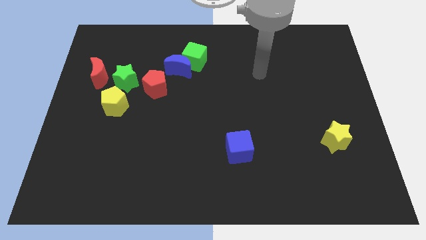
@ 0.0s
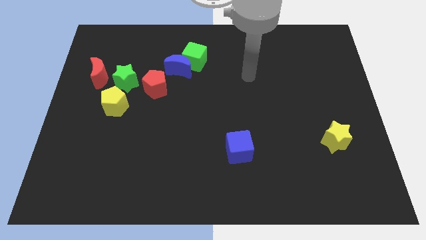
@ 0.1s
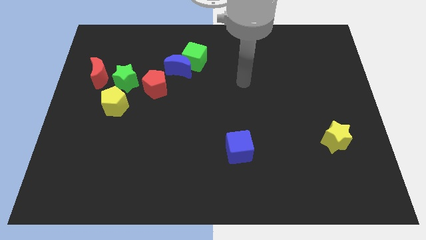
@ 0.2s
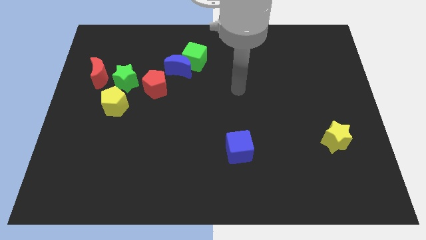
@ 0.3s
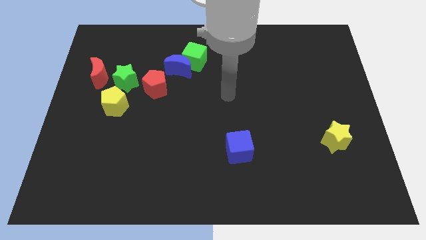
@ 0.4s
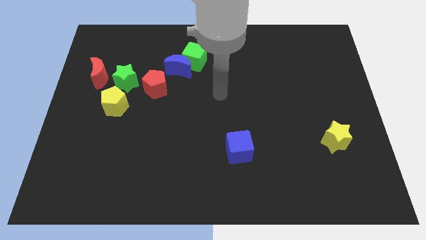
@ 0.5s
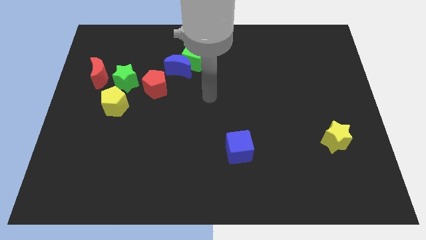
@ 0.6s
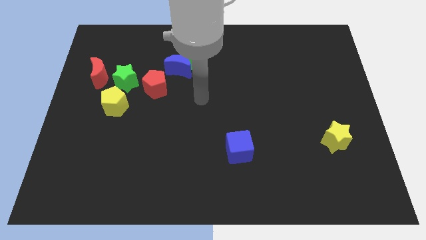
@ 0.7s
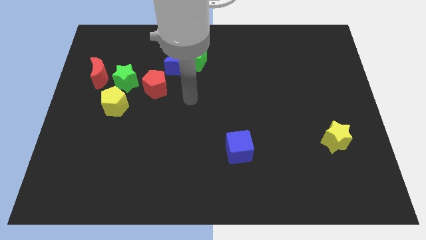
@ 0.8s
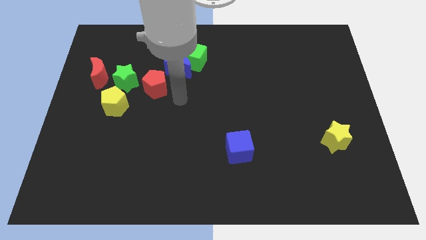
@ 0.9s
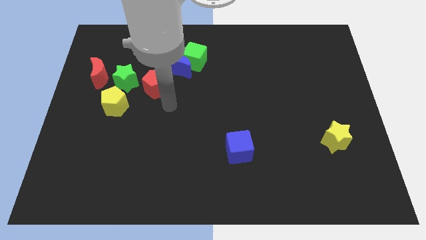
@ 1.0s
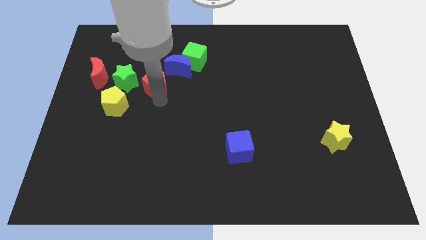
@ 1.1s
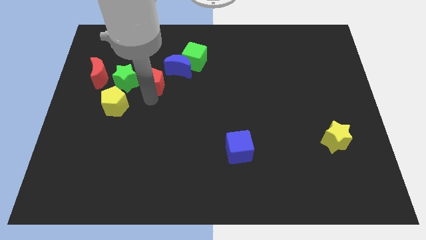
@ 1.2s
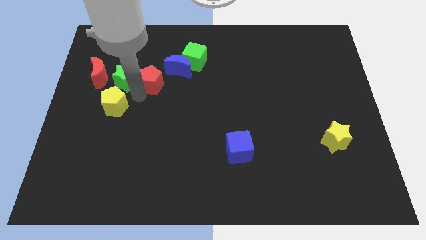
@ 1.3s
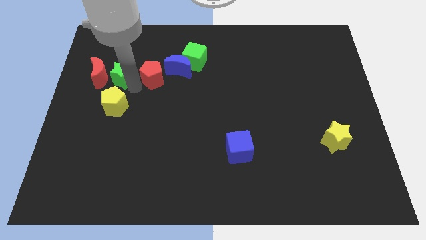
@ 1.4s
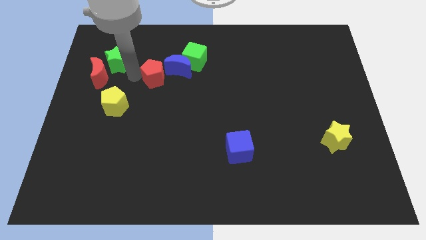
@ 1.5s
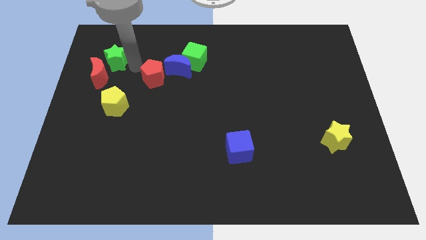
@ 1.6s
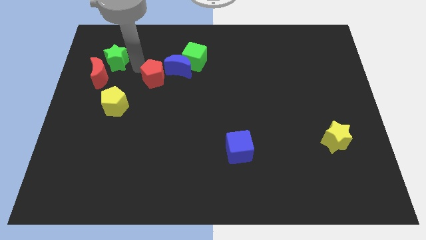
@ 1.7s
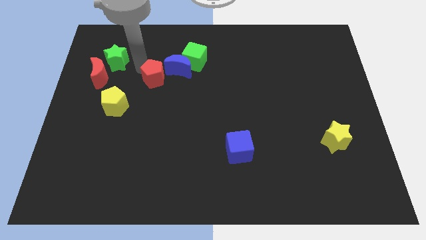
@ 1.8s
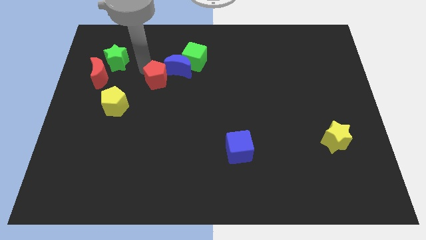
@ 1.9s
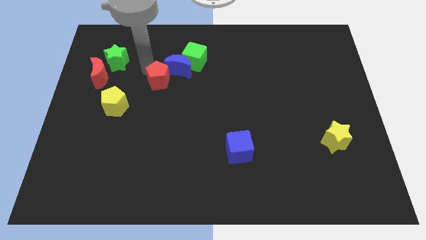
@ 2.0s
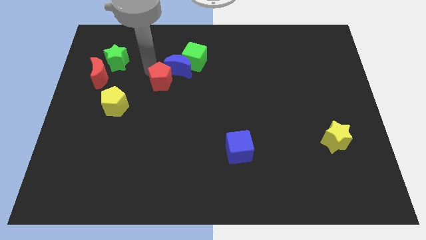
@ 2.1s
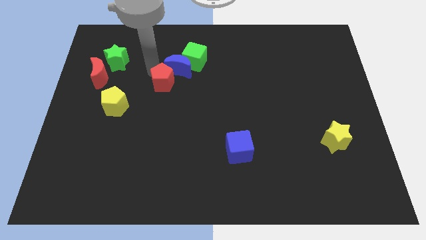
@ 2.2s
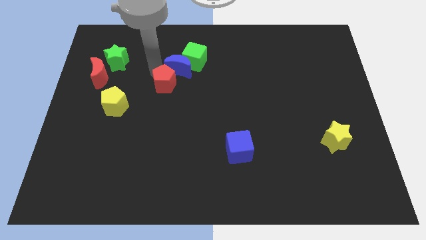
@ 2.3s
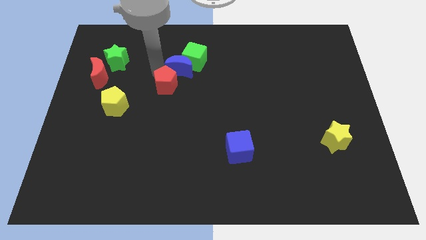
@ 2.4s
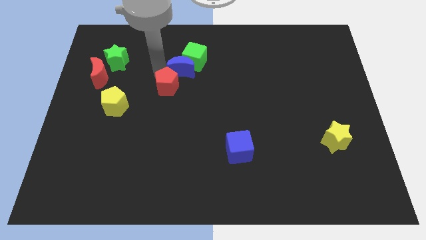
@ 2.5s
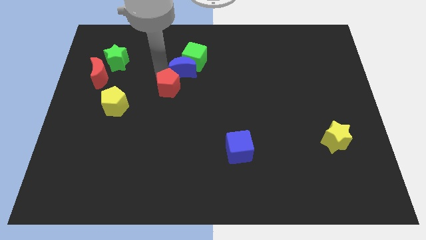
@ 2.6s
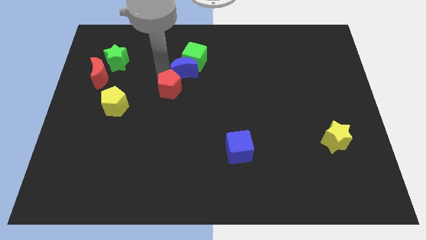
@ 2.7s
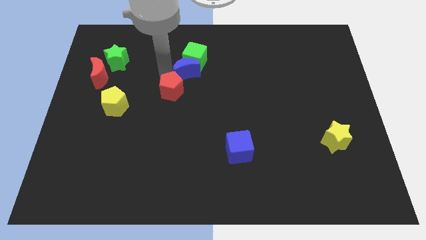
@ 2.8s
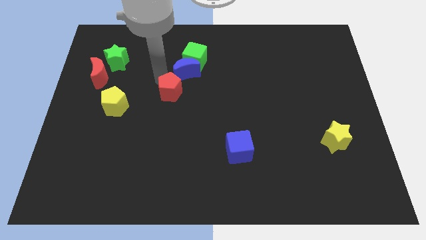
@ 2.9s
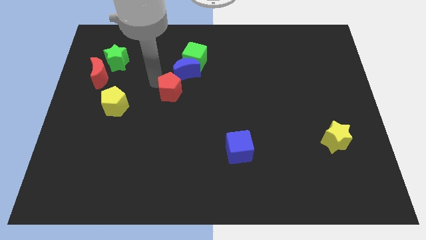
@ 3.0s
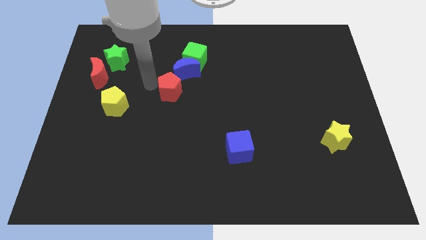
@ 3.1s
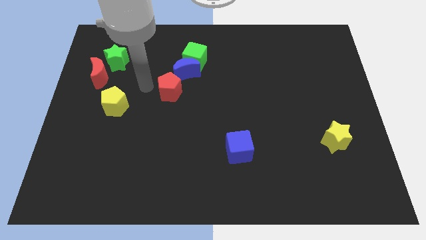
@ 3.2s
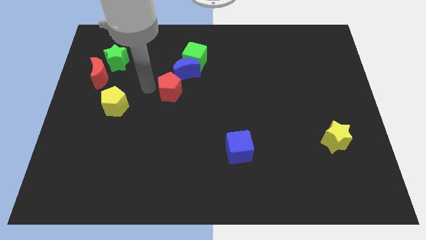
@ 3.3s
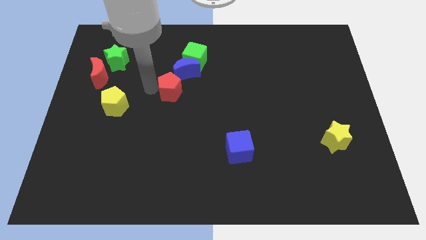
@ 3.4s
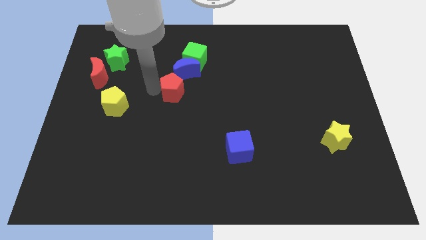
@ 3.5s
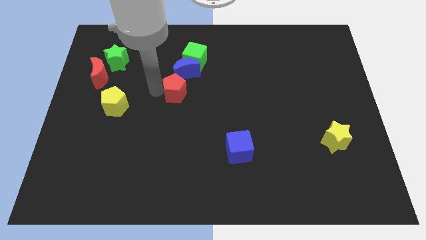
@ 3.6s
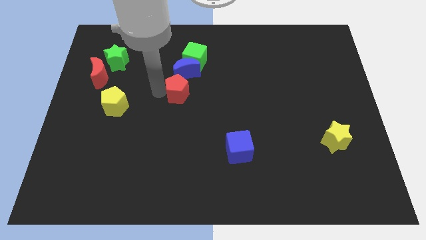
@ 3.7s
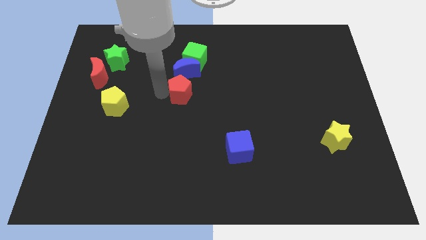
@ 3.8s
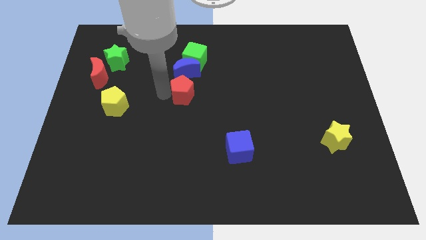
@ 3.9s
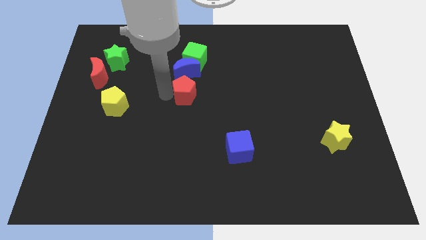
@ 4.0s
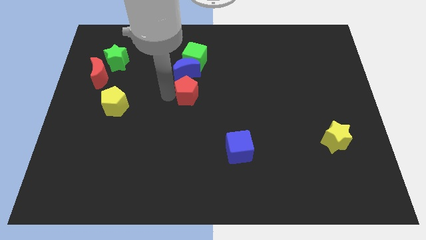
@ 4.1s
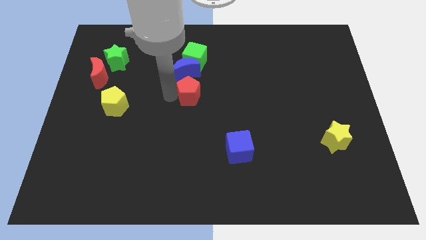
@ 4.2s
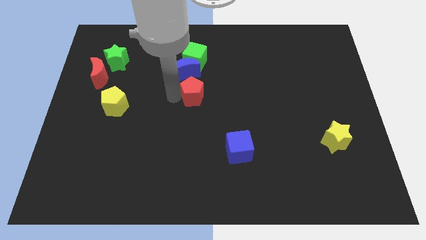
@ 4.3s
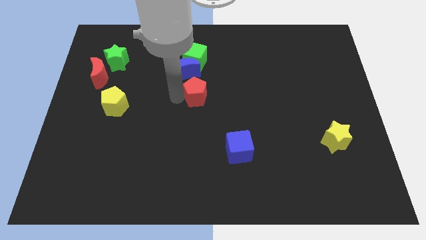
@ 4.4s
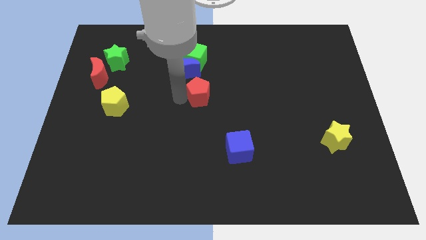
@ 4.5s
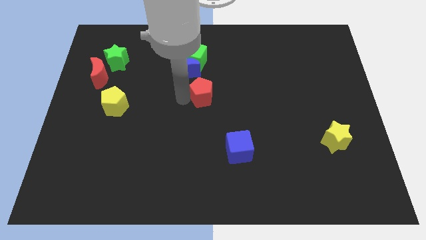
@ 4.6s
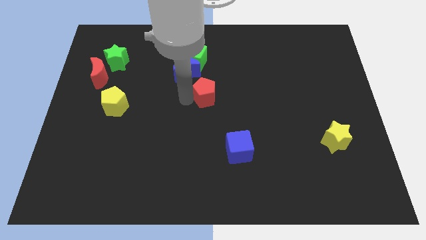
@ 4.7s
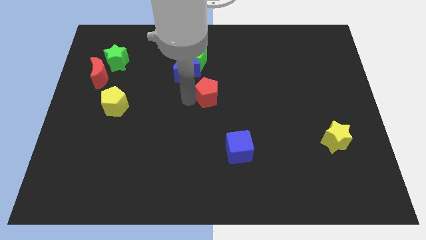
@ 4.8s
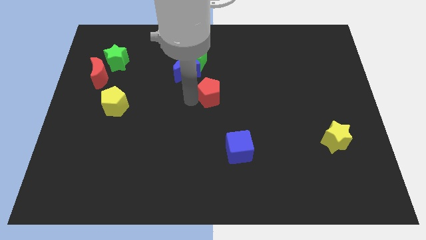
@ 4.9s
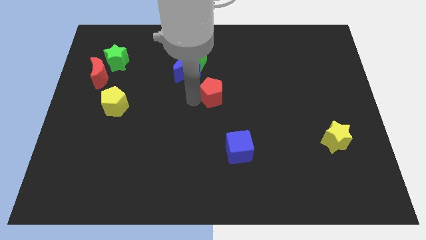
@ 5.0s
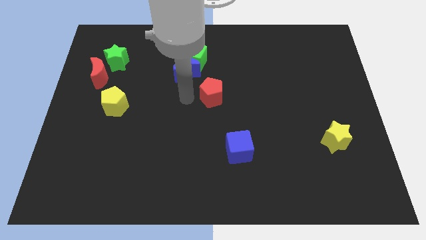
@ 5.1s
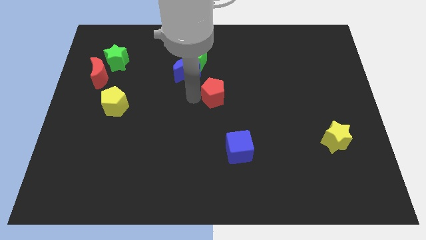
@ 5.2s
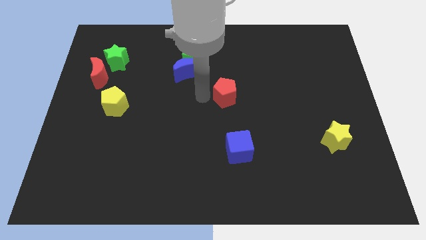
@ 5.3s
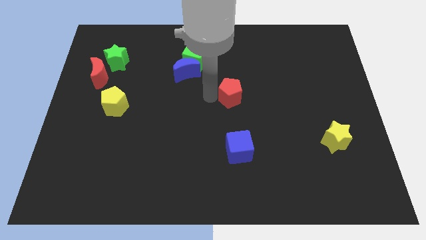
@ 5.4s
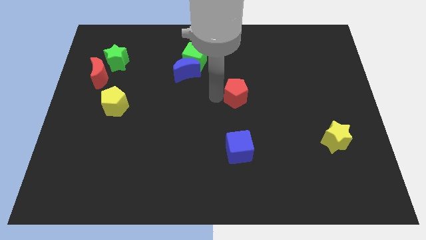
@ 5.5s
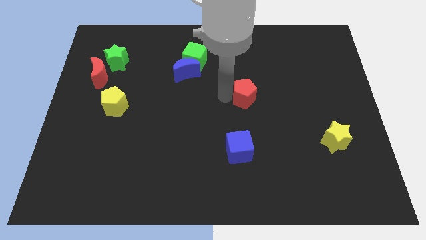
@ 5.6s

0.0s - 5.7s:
slide the red pentagon right

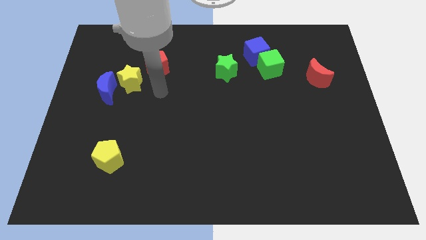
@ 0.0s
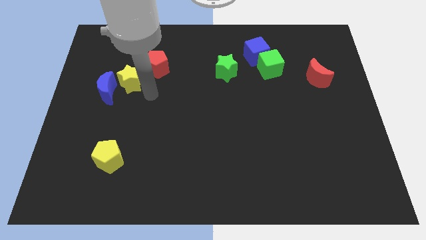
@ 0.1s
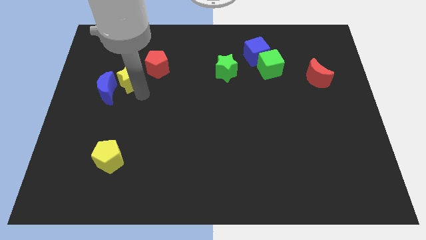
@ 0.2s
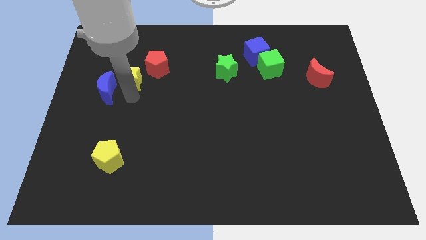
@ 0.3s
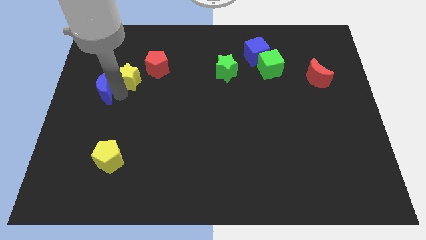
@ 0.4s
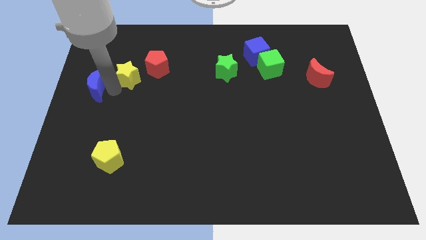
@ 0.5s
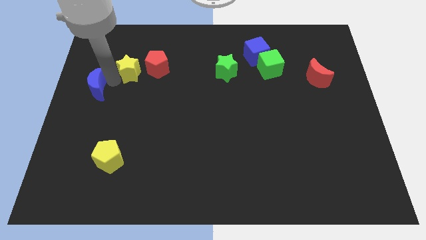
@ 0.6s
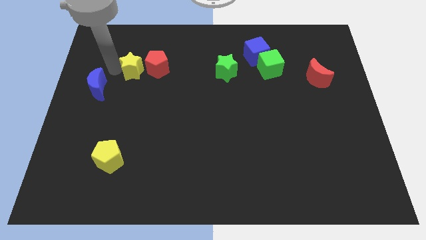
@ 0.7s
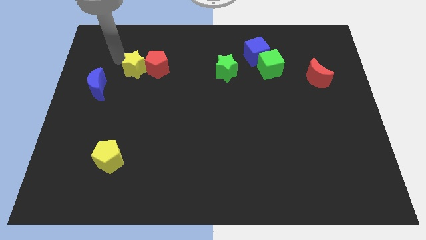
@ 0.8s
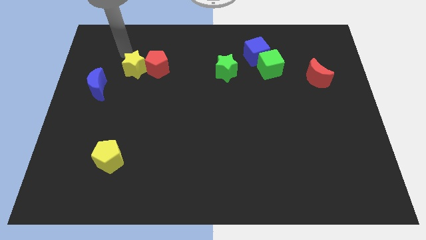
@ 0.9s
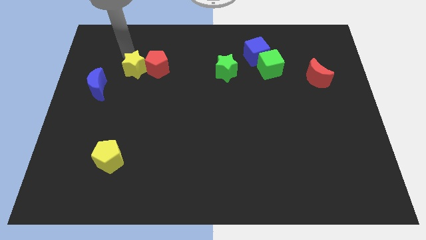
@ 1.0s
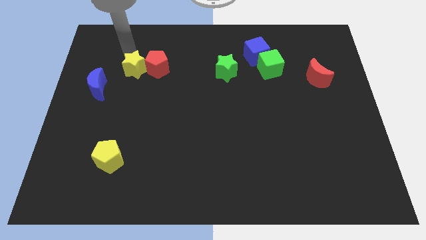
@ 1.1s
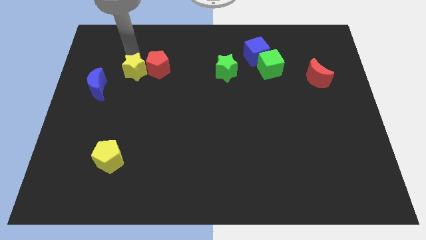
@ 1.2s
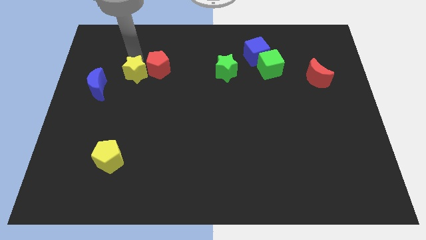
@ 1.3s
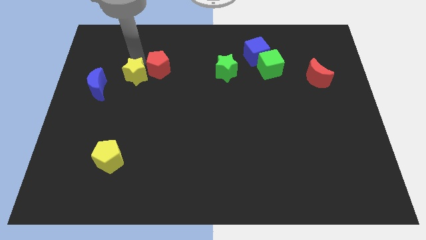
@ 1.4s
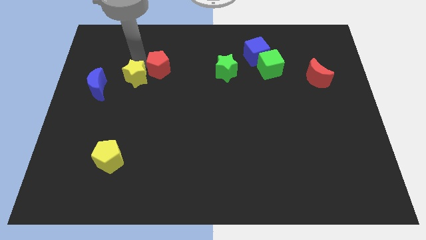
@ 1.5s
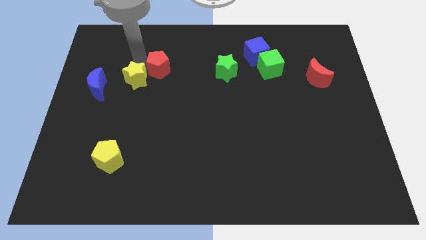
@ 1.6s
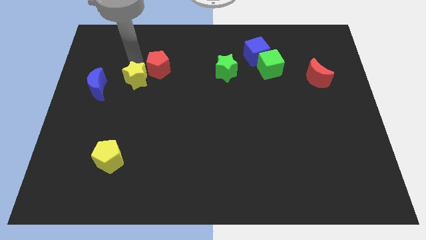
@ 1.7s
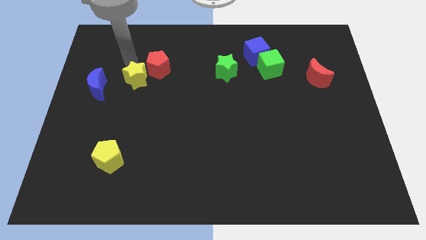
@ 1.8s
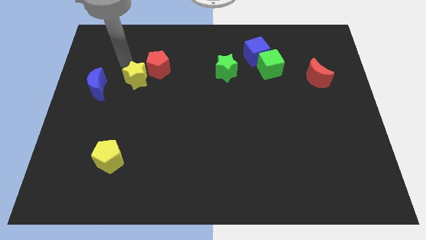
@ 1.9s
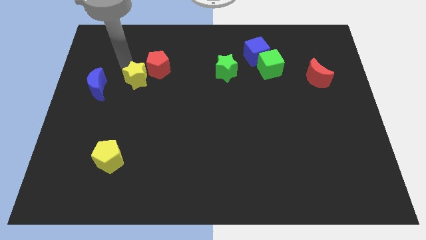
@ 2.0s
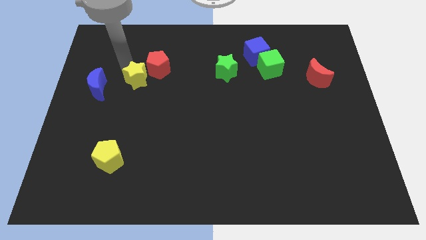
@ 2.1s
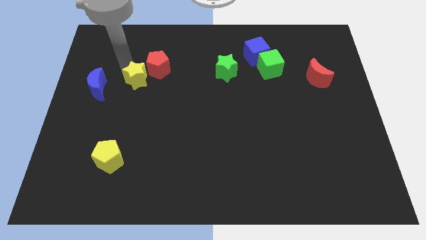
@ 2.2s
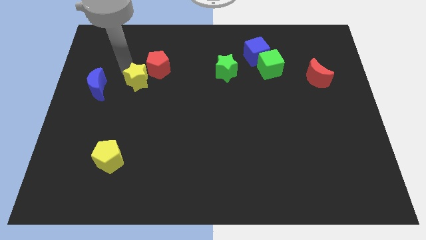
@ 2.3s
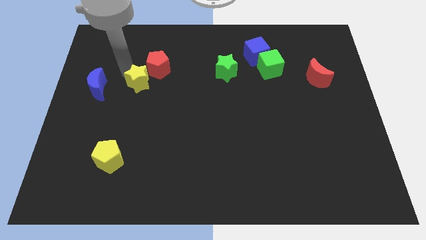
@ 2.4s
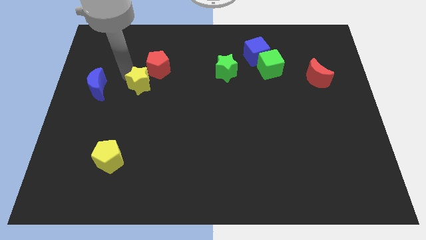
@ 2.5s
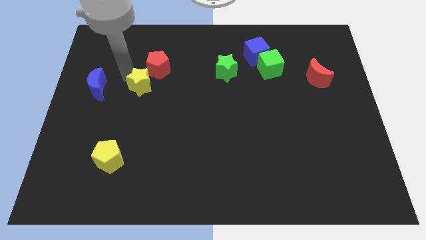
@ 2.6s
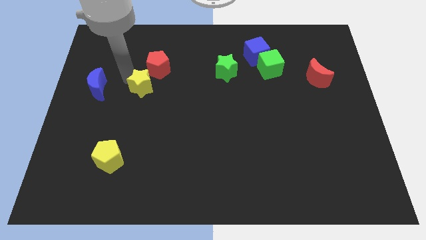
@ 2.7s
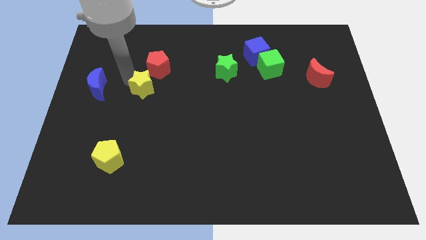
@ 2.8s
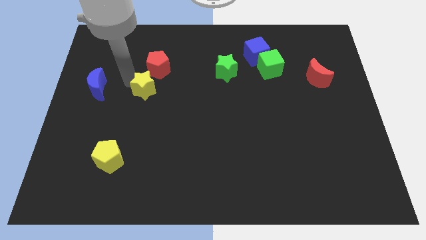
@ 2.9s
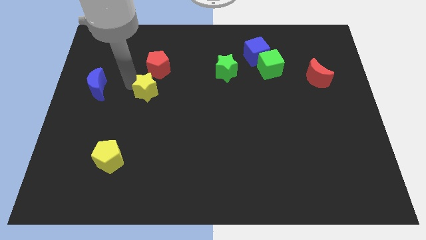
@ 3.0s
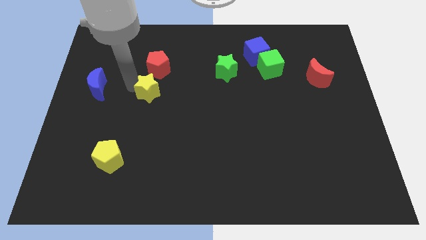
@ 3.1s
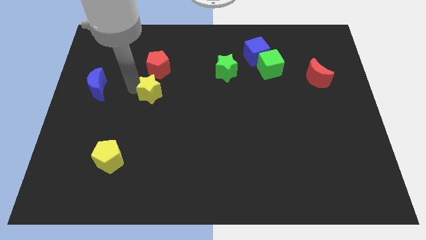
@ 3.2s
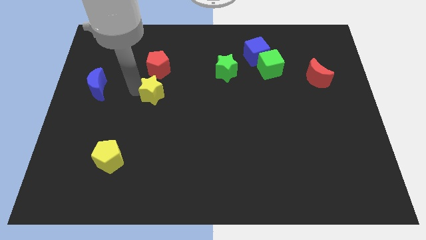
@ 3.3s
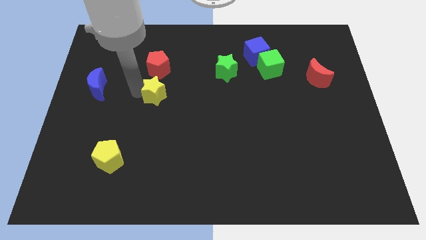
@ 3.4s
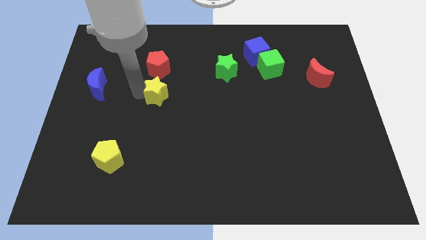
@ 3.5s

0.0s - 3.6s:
slightly move the yellow star downwards and right diagonally
